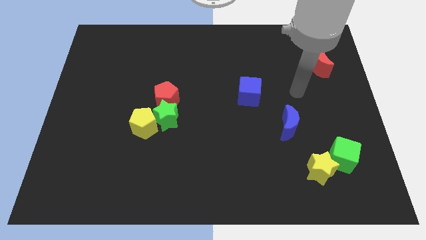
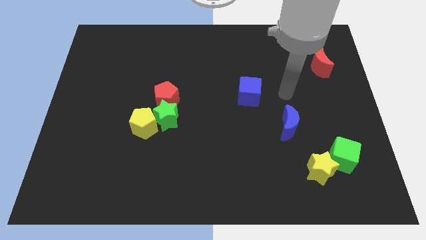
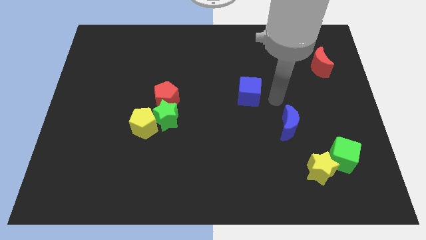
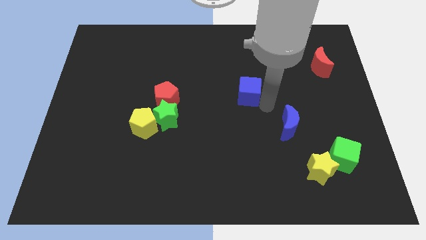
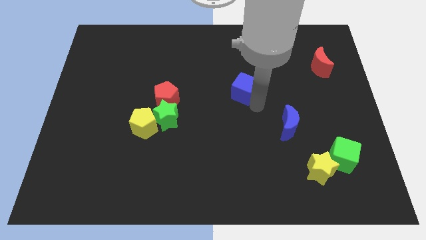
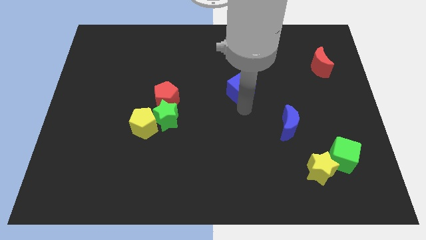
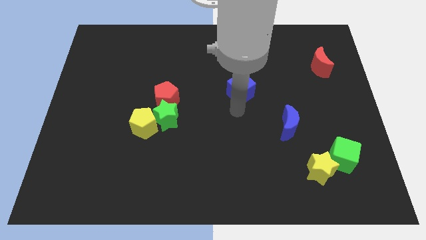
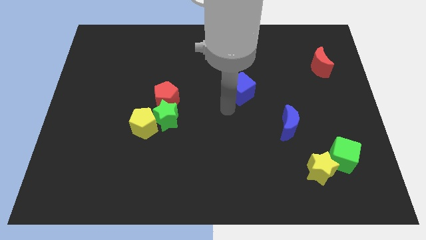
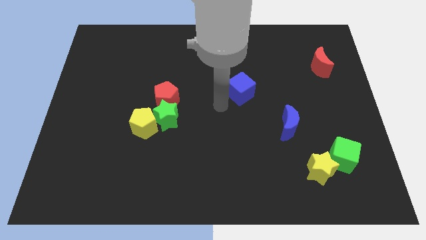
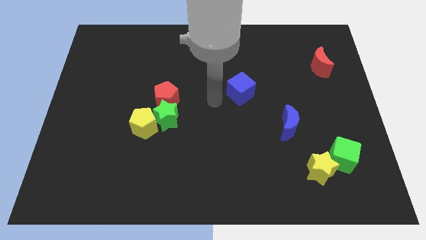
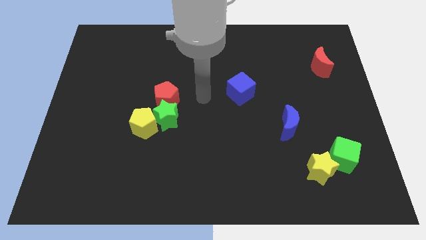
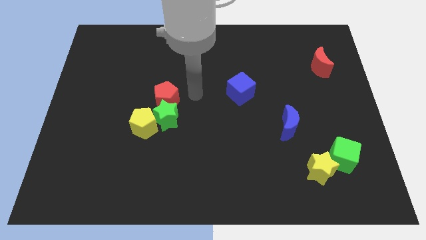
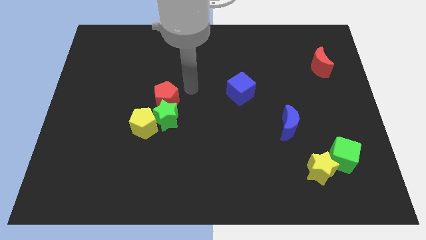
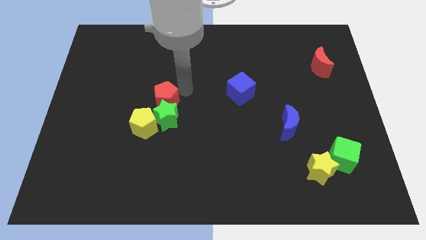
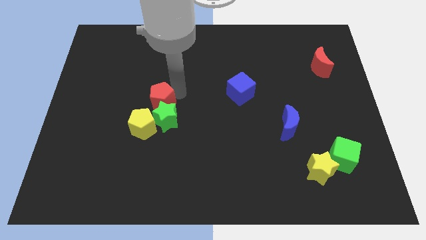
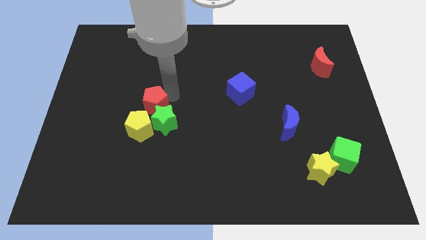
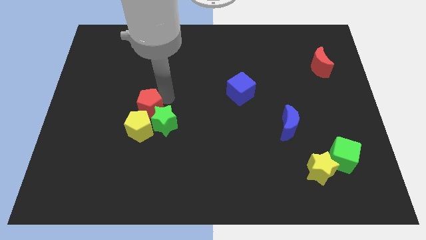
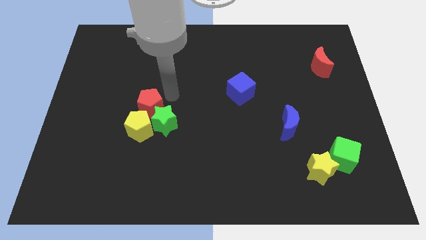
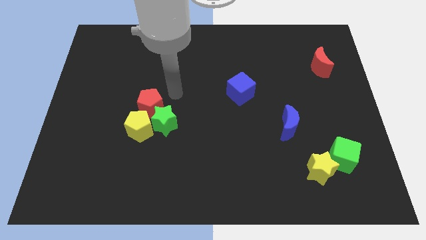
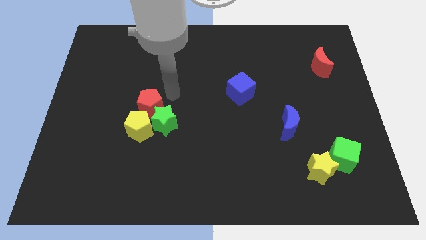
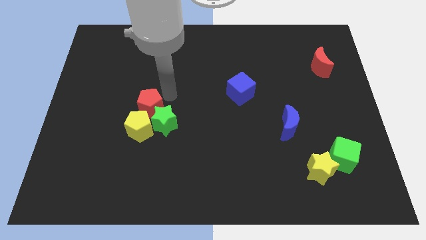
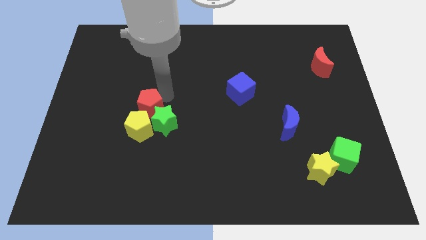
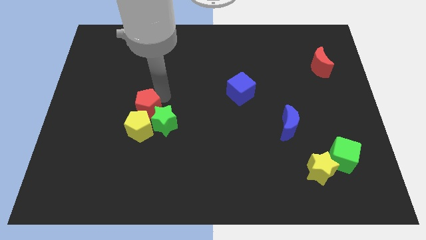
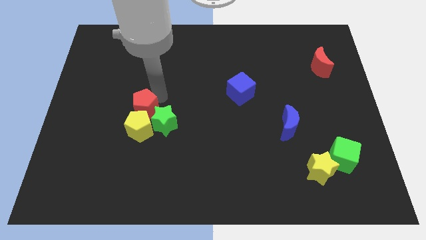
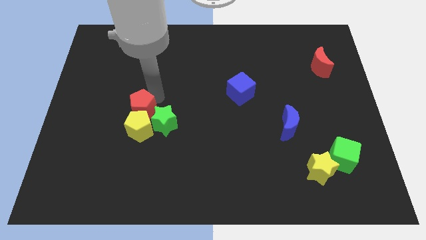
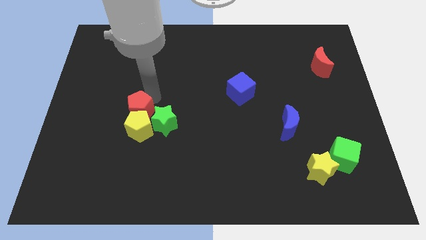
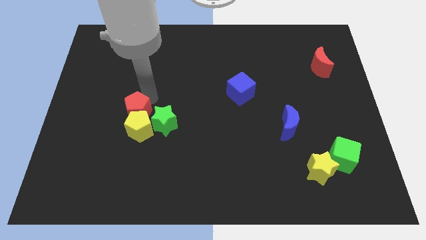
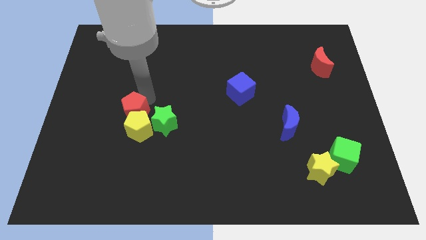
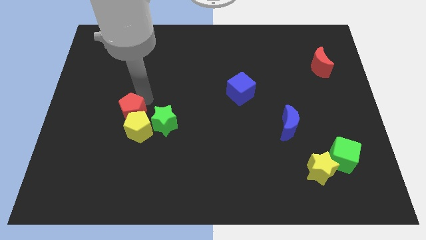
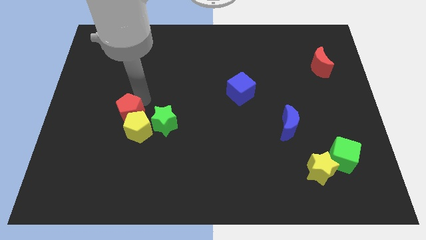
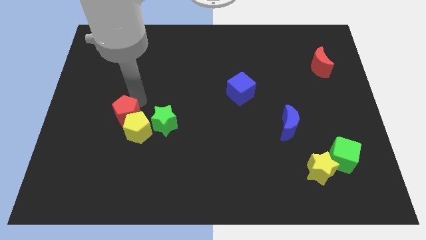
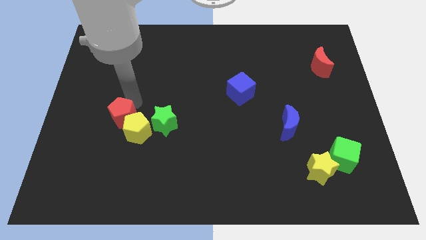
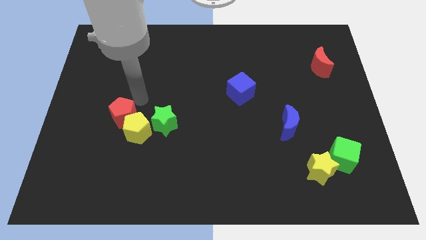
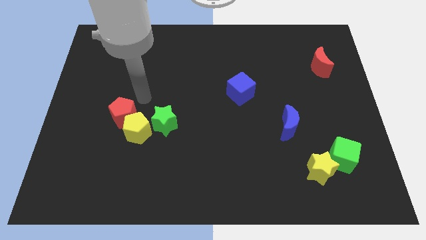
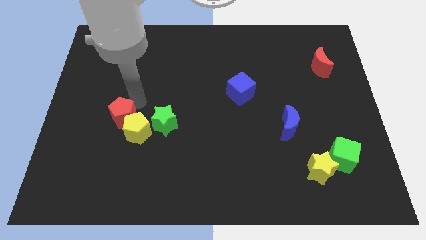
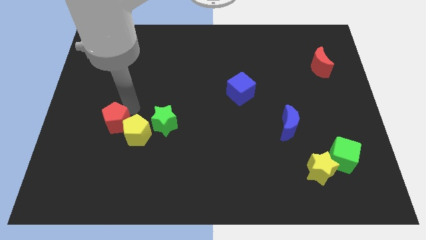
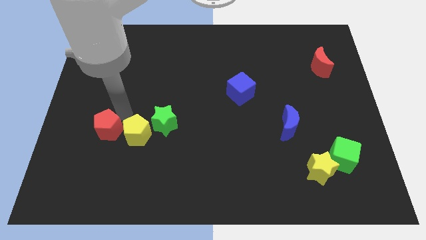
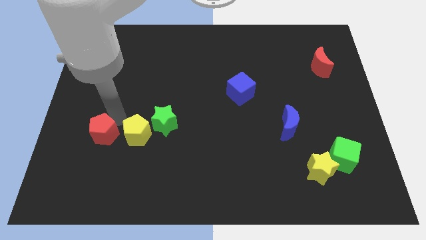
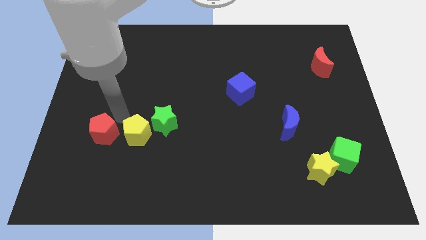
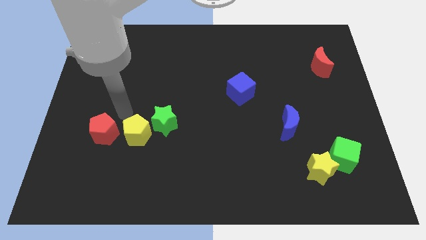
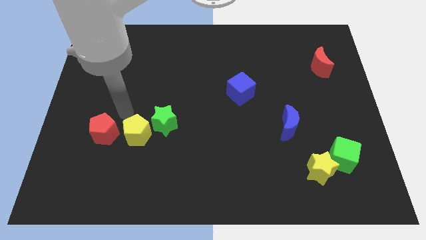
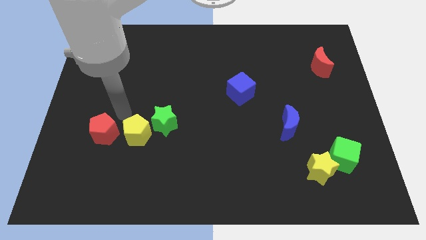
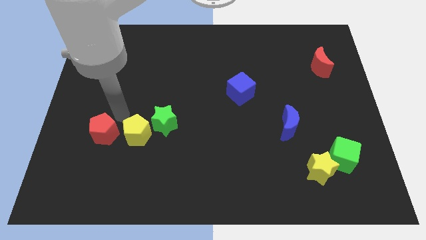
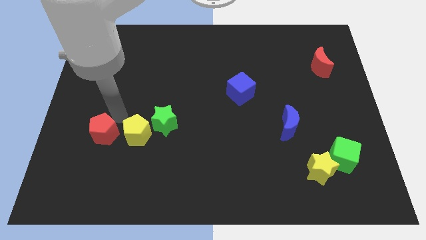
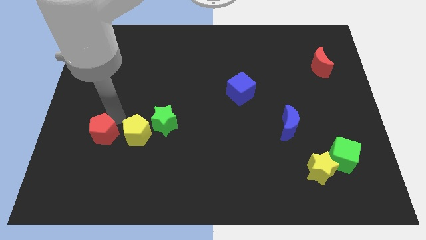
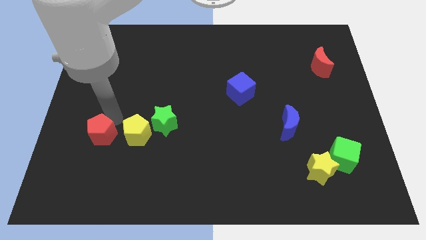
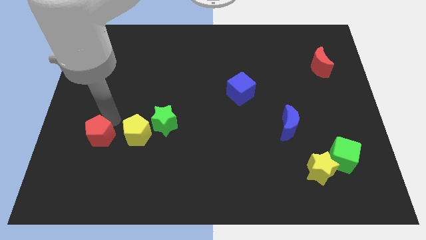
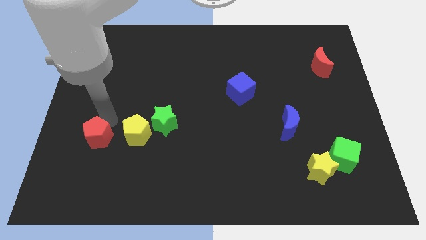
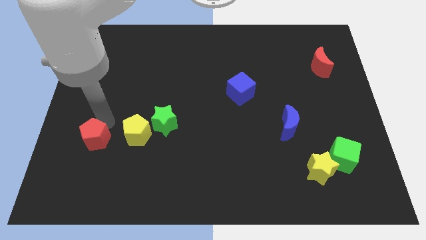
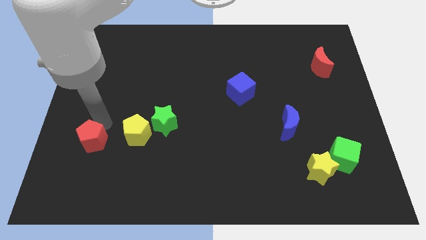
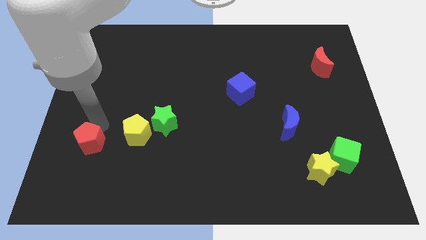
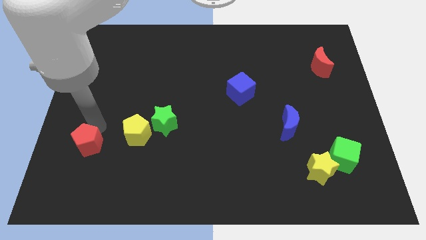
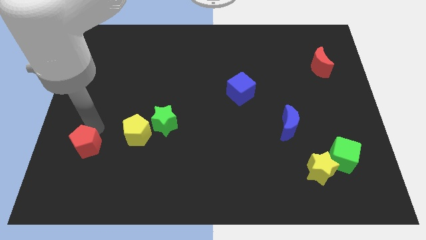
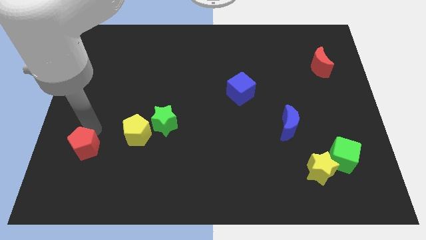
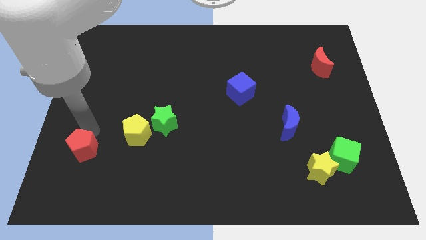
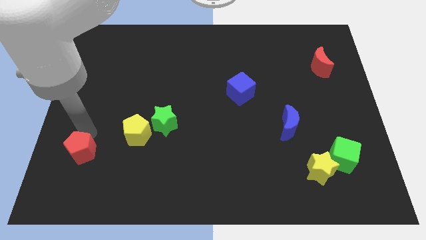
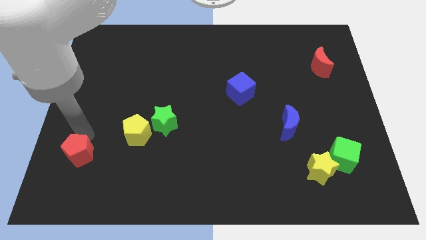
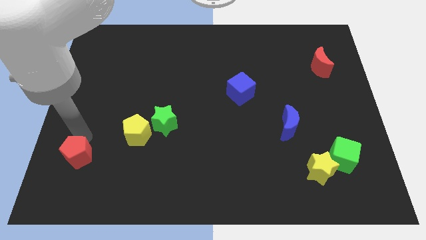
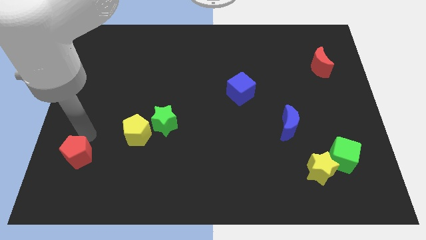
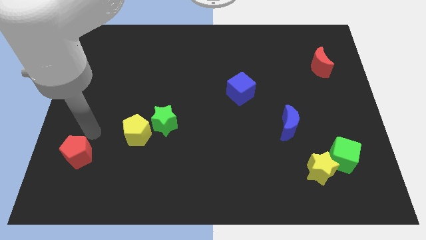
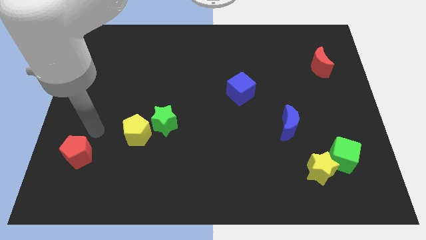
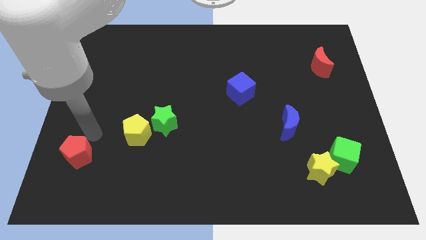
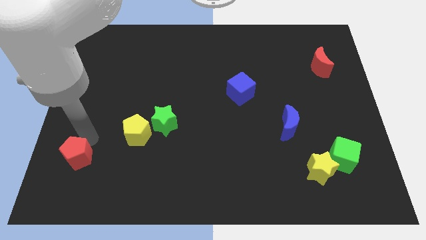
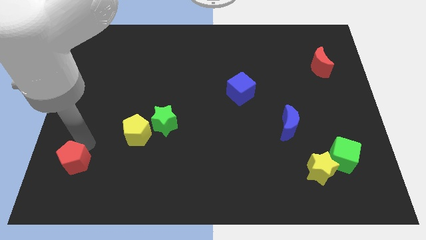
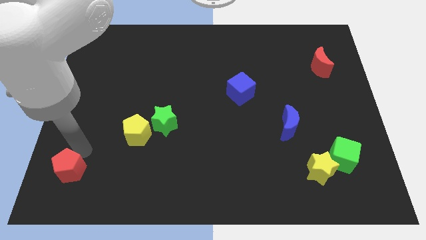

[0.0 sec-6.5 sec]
put the red pentagon to the lower left corner
